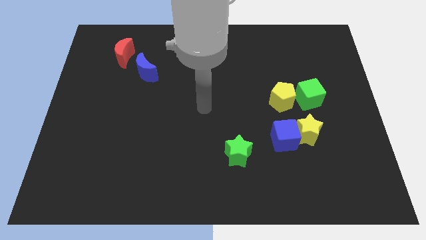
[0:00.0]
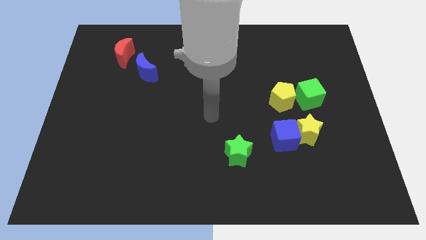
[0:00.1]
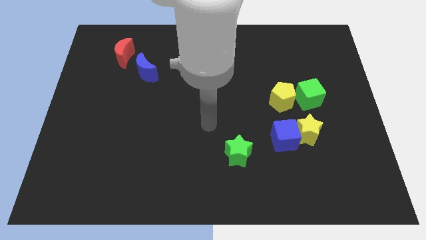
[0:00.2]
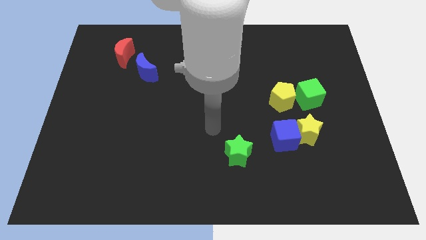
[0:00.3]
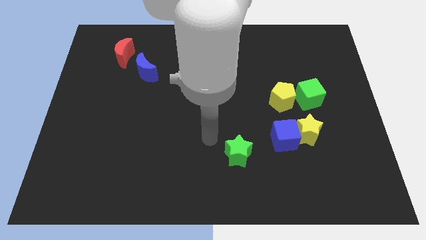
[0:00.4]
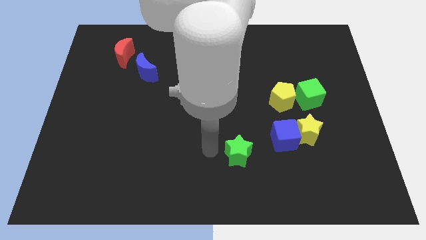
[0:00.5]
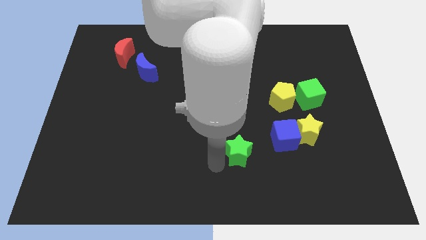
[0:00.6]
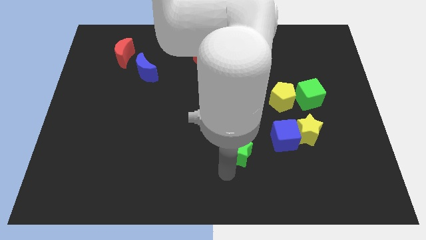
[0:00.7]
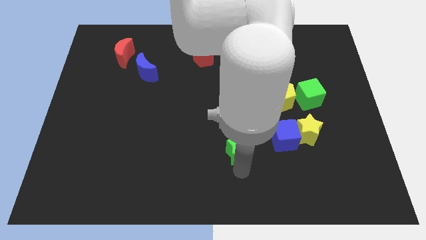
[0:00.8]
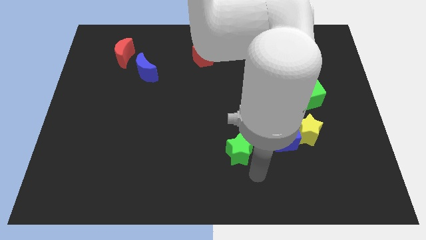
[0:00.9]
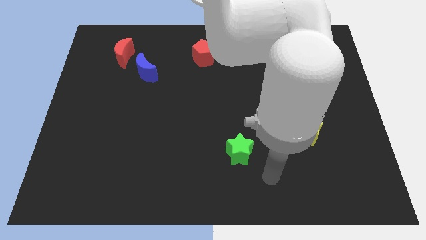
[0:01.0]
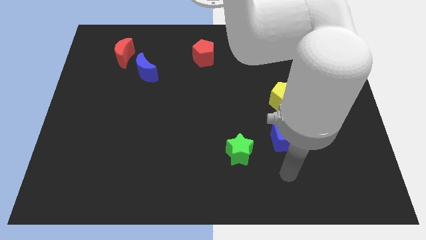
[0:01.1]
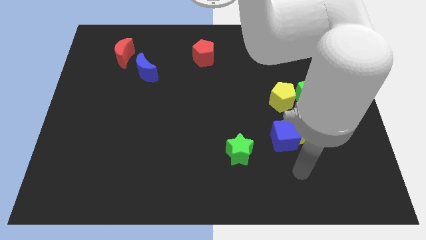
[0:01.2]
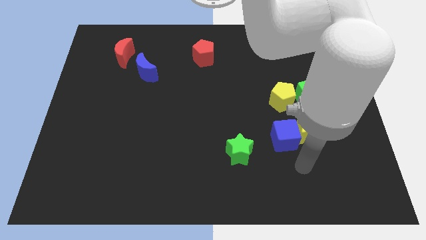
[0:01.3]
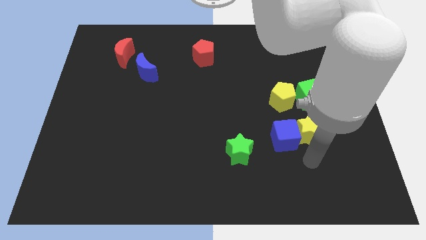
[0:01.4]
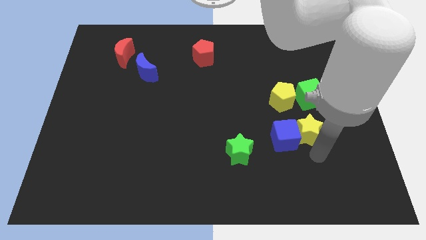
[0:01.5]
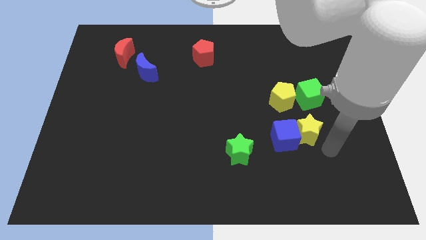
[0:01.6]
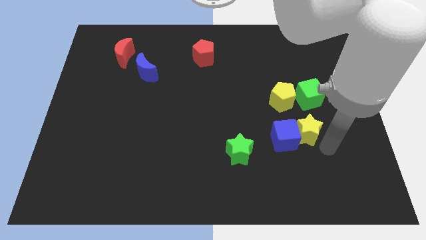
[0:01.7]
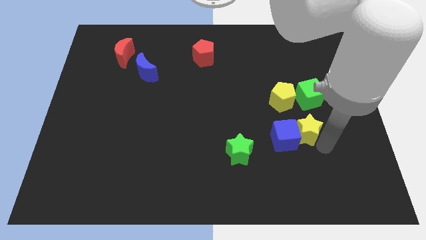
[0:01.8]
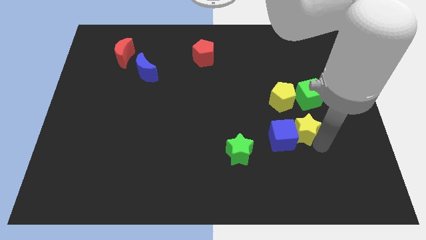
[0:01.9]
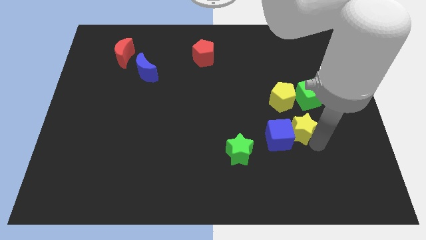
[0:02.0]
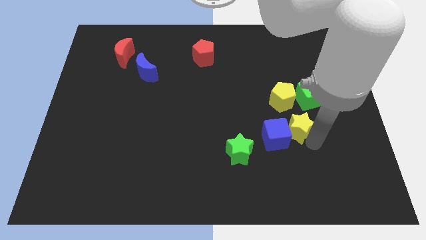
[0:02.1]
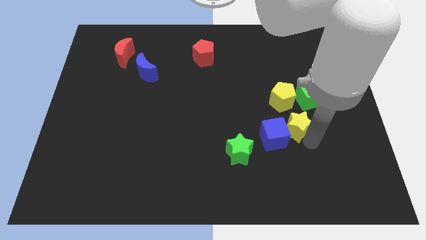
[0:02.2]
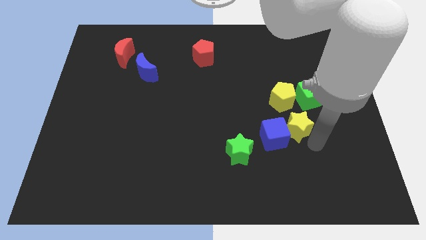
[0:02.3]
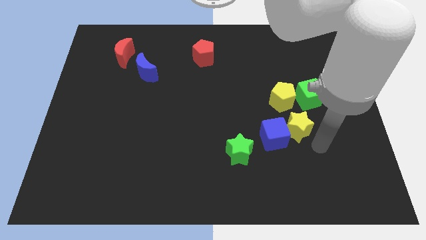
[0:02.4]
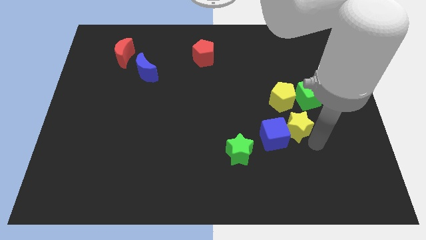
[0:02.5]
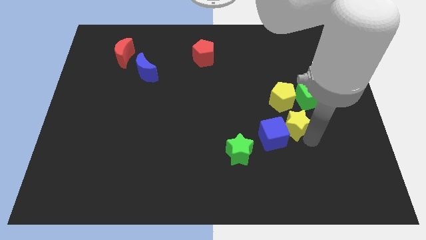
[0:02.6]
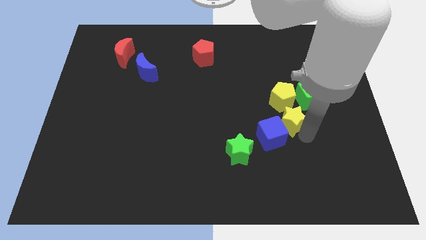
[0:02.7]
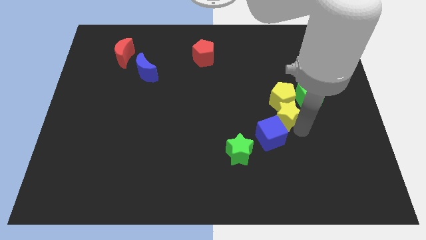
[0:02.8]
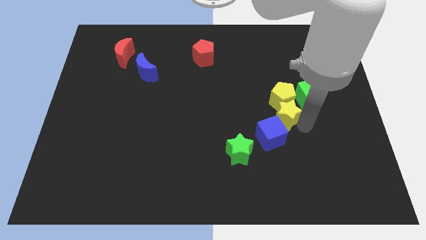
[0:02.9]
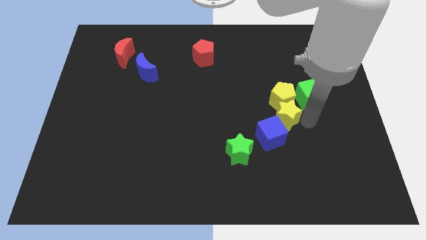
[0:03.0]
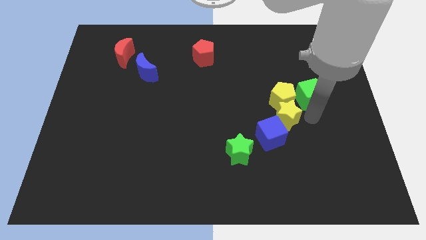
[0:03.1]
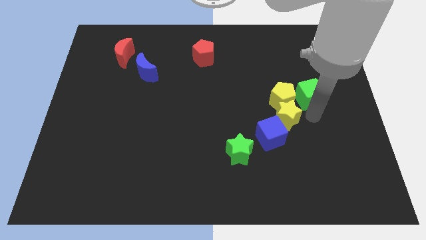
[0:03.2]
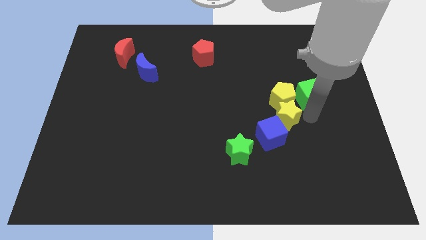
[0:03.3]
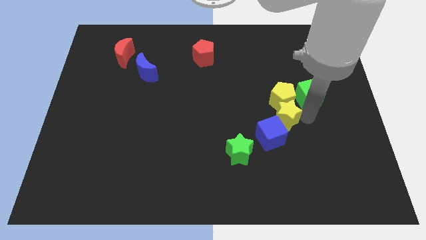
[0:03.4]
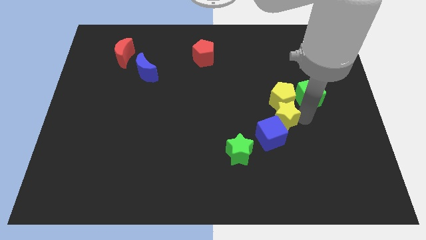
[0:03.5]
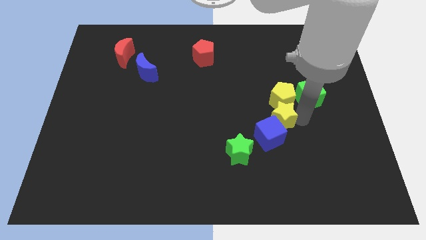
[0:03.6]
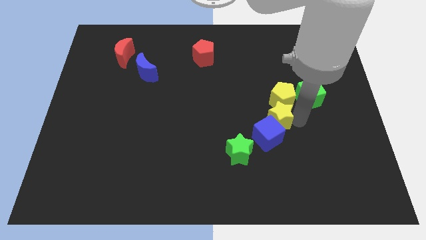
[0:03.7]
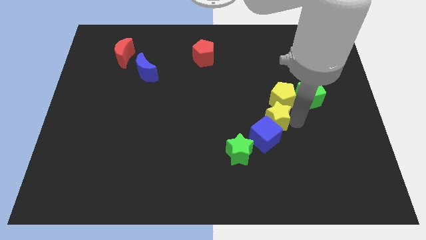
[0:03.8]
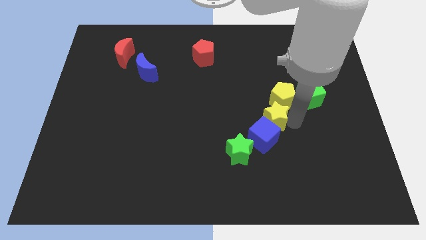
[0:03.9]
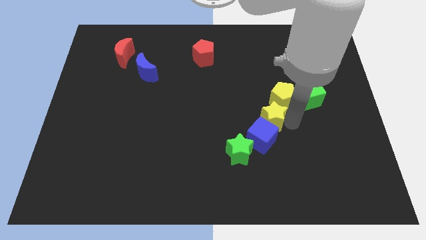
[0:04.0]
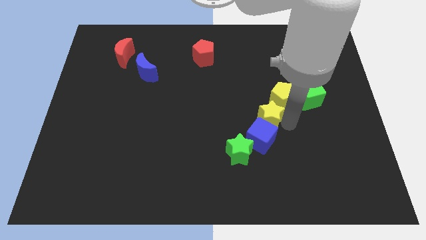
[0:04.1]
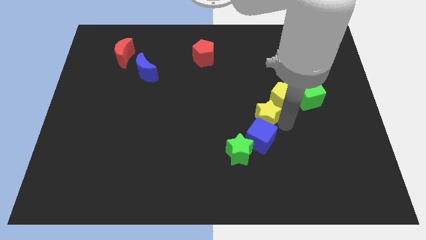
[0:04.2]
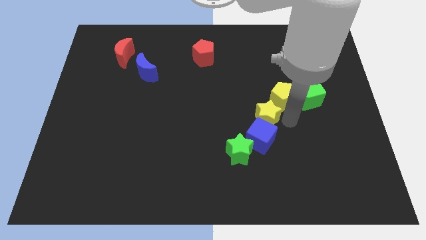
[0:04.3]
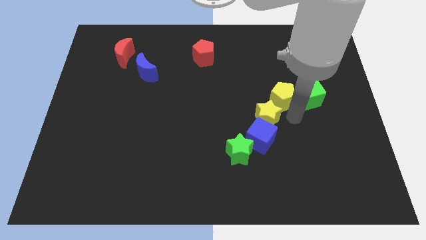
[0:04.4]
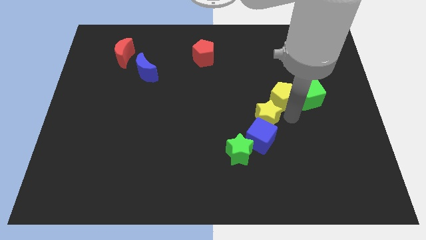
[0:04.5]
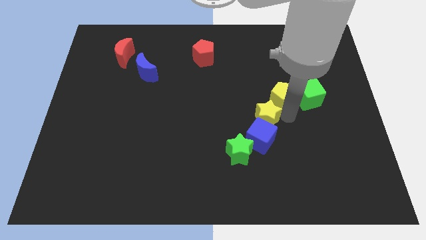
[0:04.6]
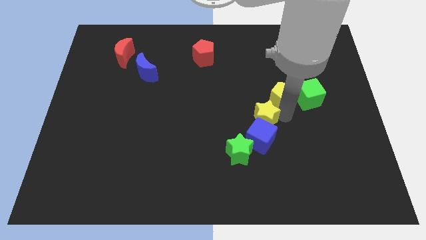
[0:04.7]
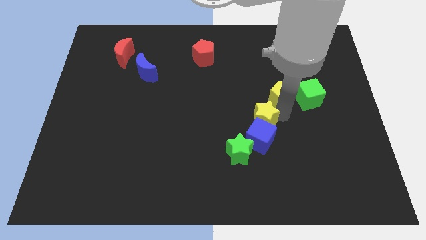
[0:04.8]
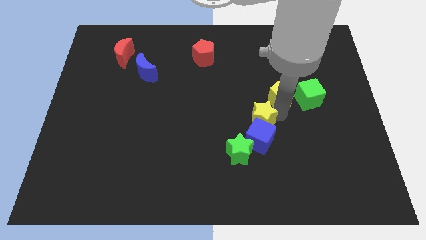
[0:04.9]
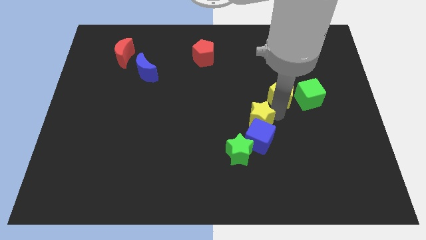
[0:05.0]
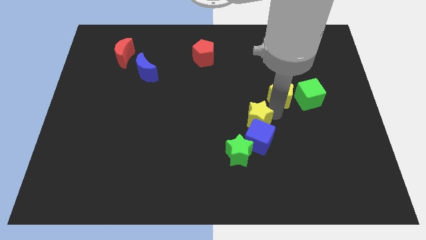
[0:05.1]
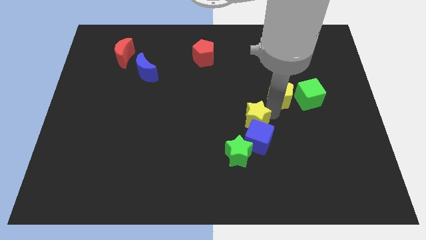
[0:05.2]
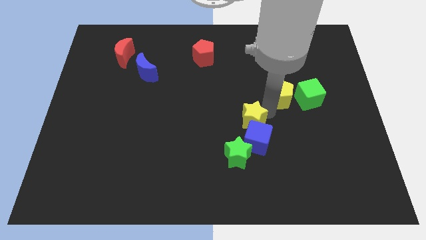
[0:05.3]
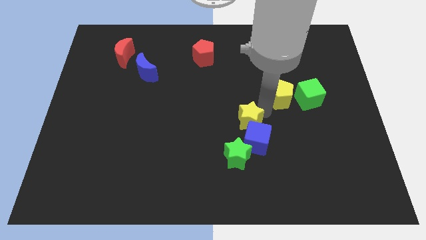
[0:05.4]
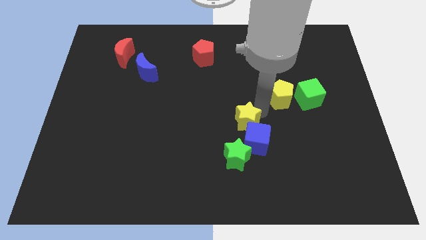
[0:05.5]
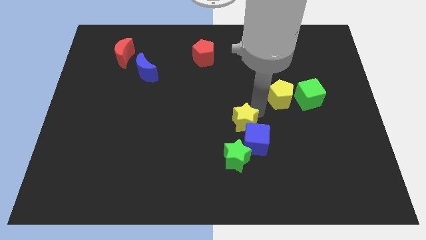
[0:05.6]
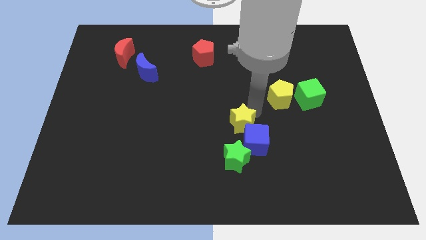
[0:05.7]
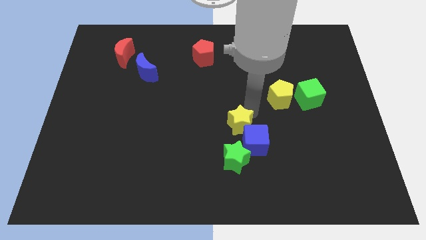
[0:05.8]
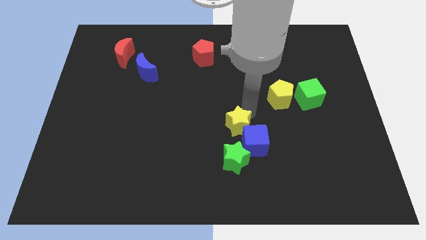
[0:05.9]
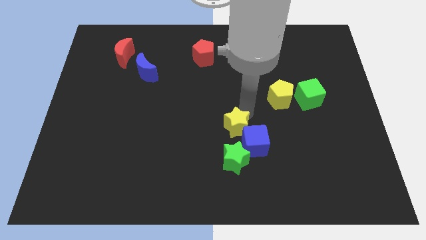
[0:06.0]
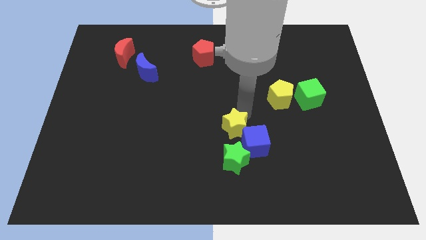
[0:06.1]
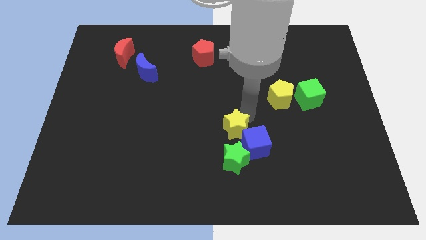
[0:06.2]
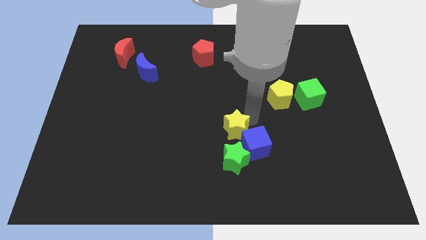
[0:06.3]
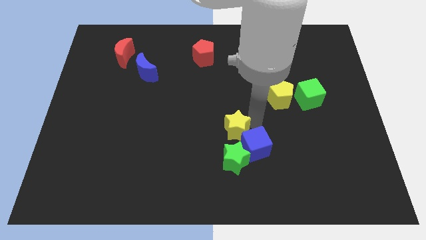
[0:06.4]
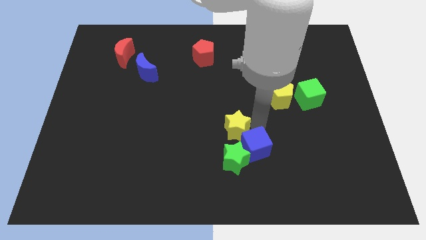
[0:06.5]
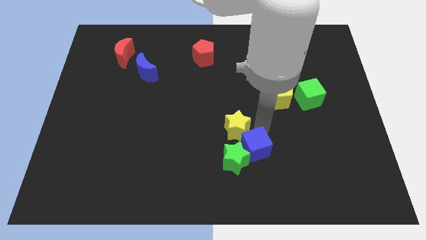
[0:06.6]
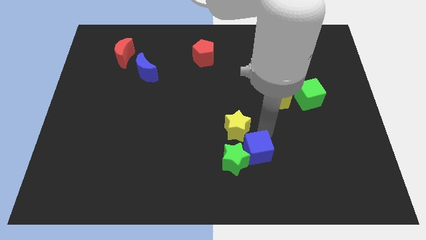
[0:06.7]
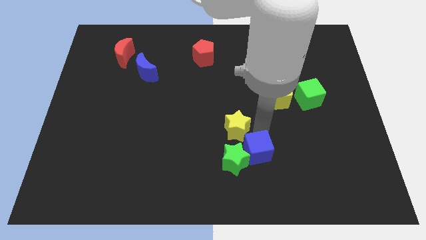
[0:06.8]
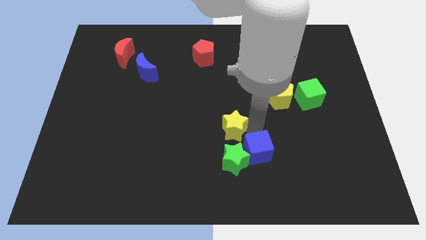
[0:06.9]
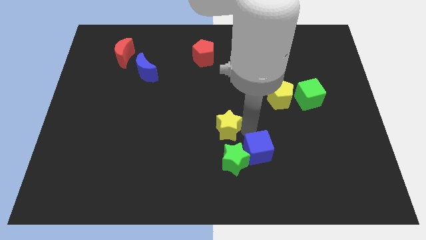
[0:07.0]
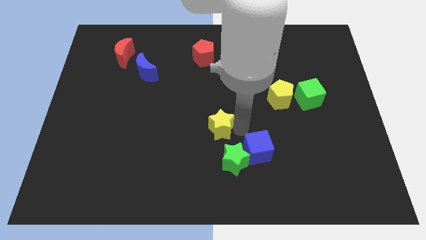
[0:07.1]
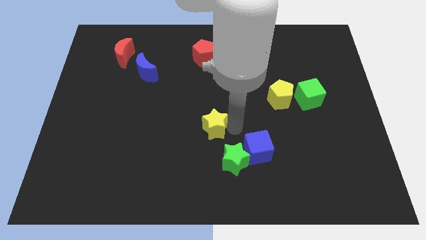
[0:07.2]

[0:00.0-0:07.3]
move the yellow star to the left

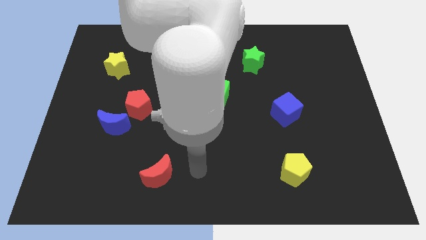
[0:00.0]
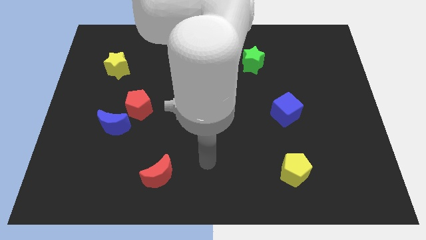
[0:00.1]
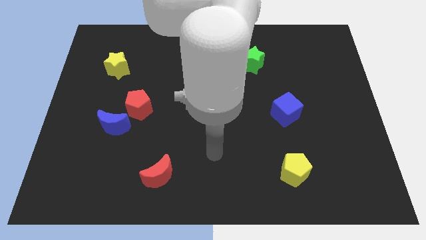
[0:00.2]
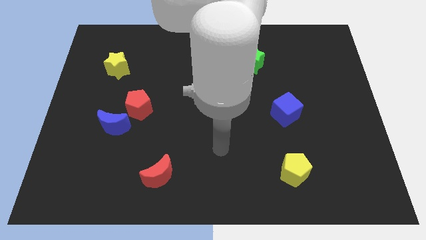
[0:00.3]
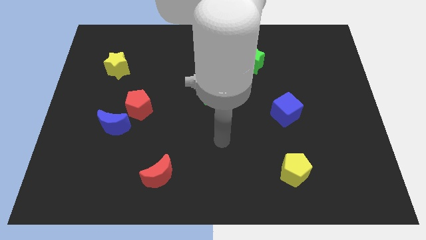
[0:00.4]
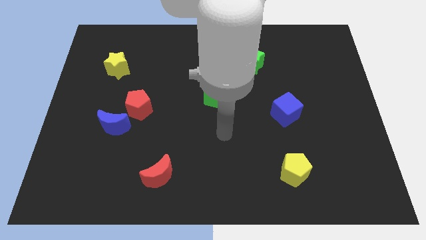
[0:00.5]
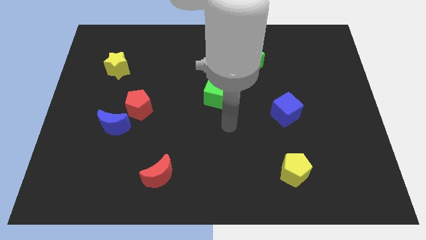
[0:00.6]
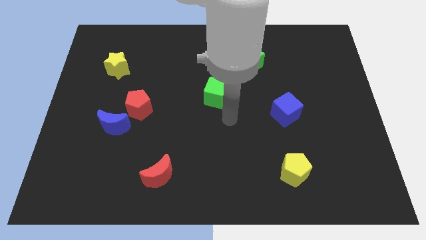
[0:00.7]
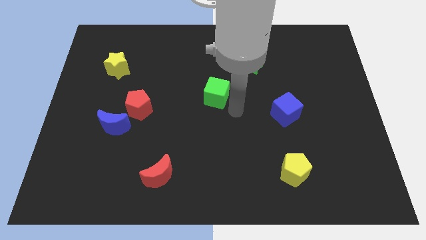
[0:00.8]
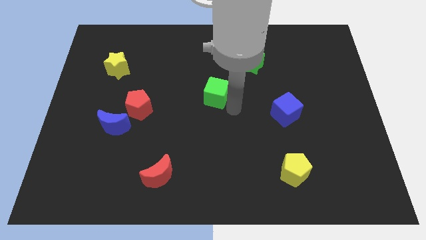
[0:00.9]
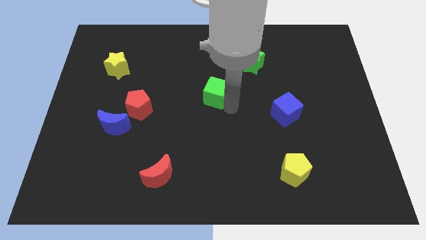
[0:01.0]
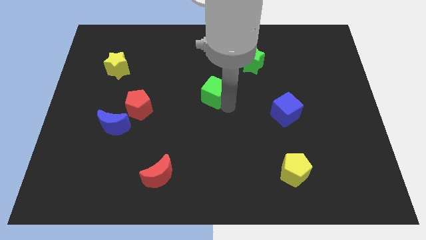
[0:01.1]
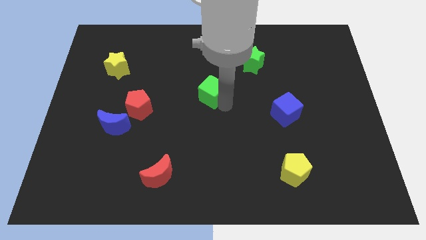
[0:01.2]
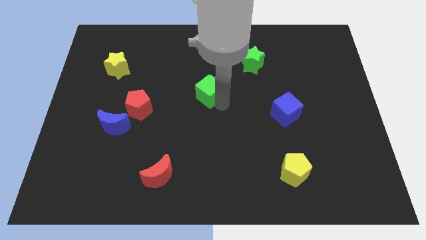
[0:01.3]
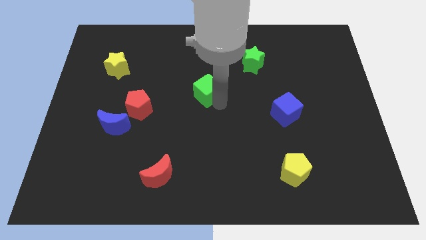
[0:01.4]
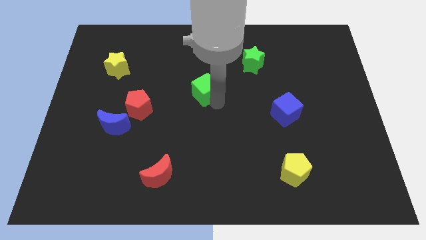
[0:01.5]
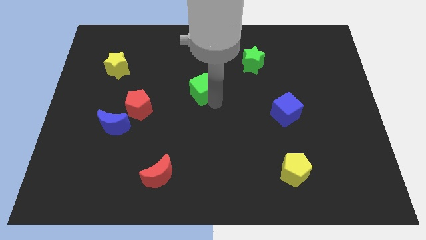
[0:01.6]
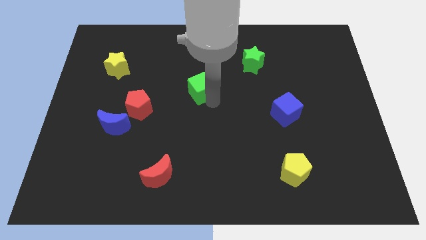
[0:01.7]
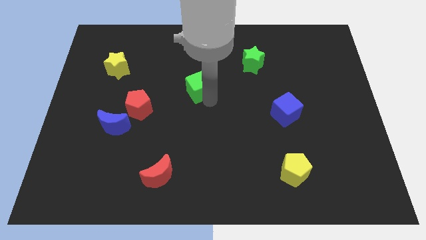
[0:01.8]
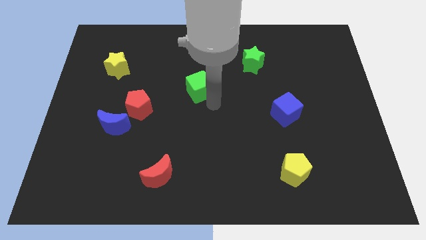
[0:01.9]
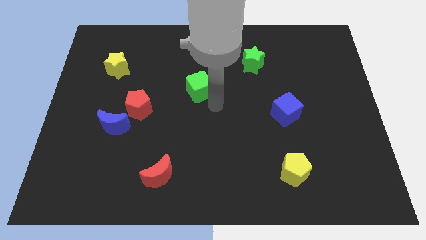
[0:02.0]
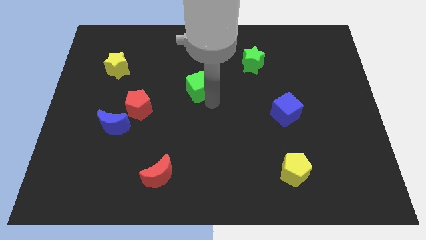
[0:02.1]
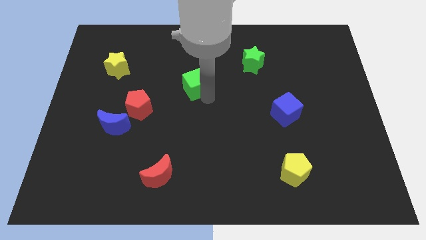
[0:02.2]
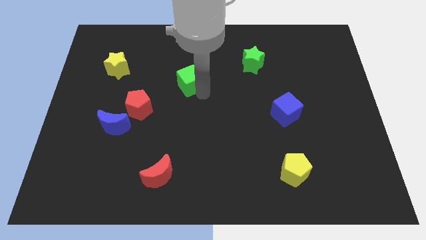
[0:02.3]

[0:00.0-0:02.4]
slightly push the green cube upwards and then left
